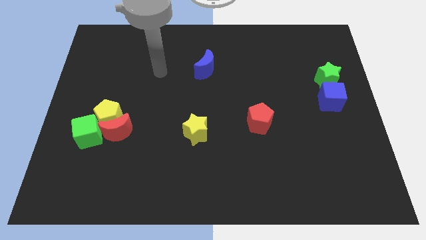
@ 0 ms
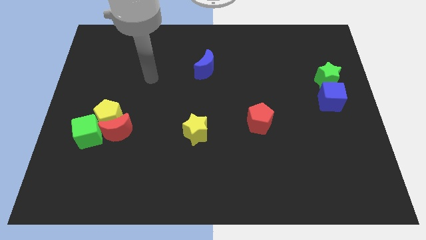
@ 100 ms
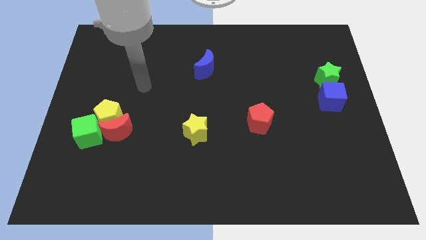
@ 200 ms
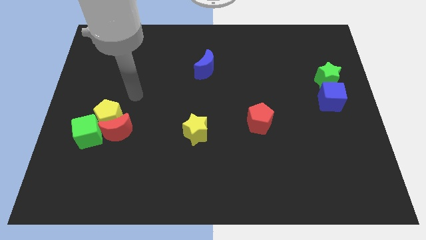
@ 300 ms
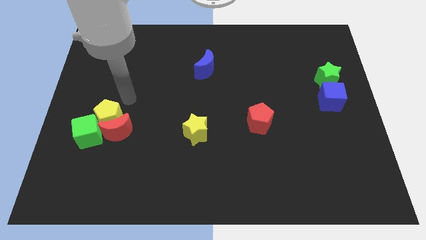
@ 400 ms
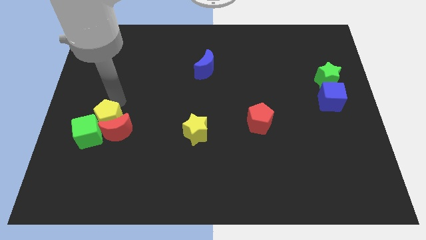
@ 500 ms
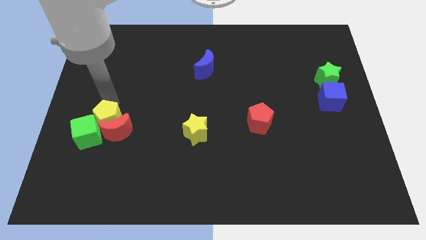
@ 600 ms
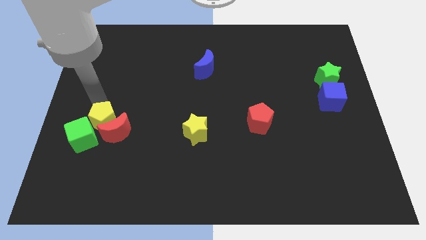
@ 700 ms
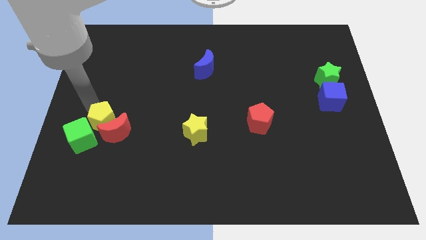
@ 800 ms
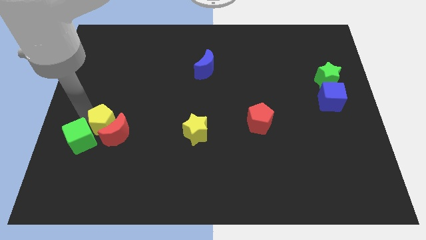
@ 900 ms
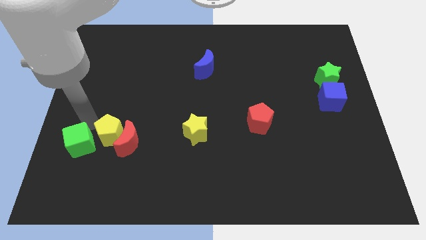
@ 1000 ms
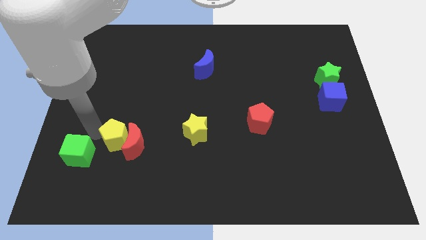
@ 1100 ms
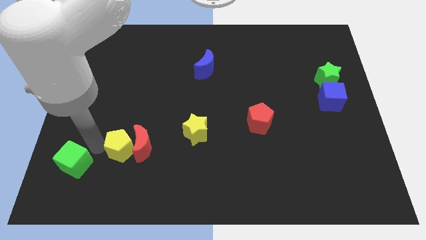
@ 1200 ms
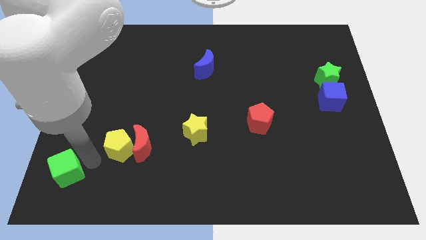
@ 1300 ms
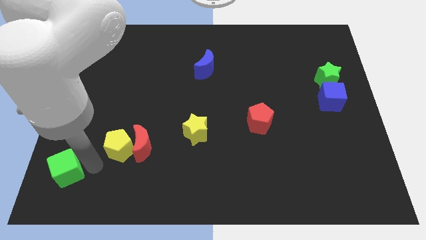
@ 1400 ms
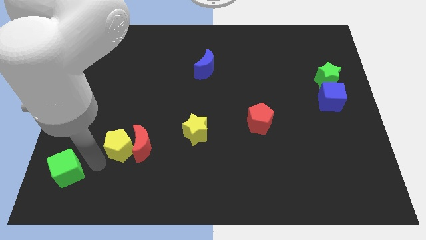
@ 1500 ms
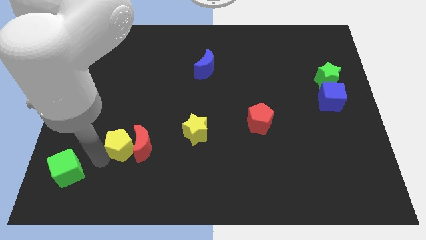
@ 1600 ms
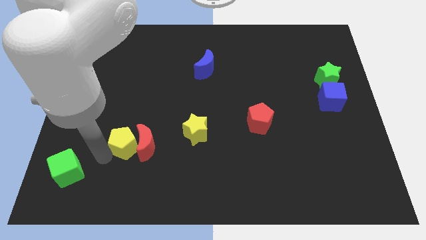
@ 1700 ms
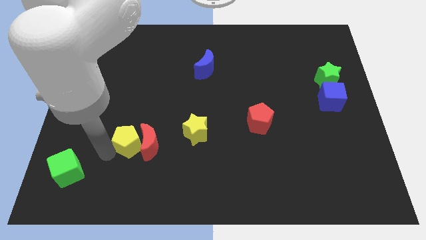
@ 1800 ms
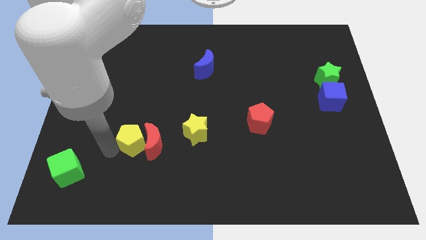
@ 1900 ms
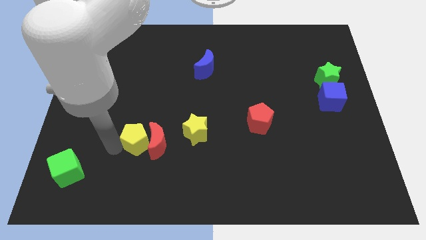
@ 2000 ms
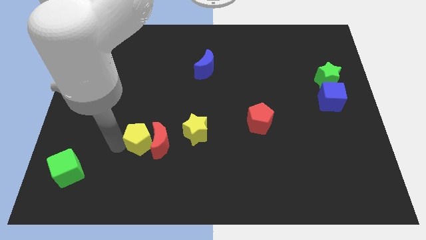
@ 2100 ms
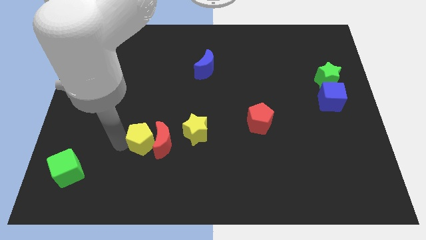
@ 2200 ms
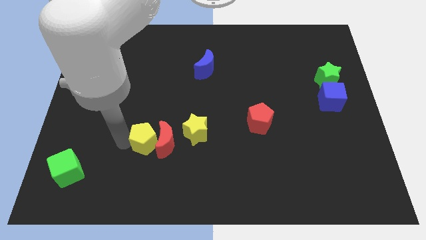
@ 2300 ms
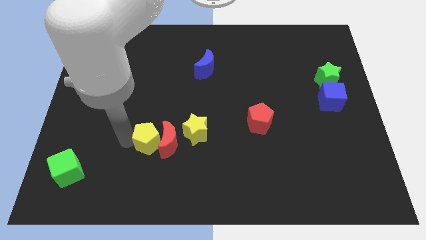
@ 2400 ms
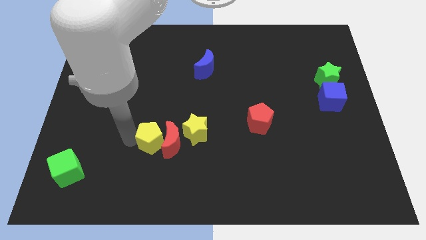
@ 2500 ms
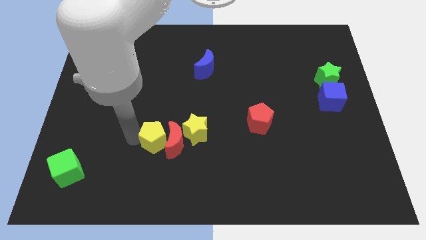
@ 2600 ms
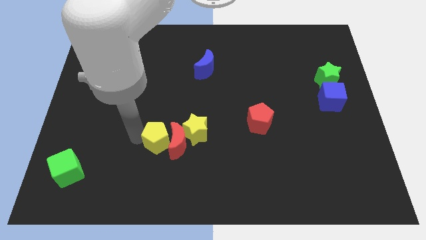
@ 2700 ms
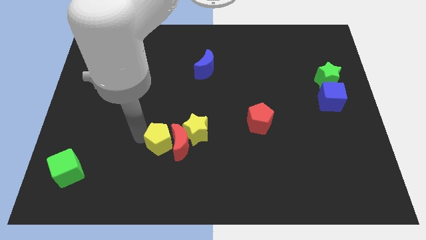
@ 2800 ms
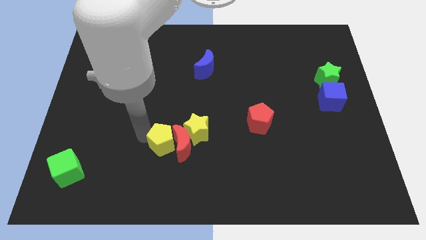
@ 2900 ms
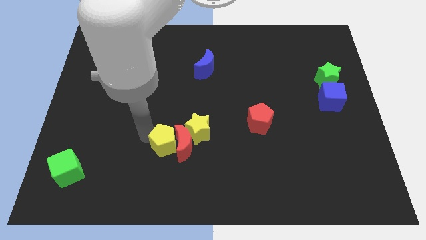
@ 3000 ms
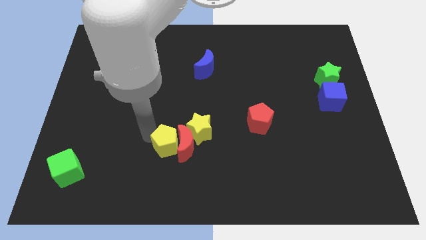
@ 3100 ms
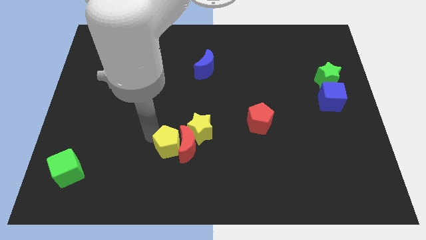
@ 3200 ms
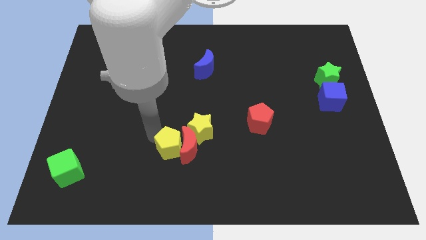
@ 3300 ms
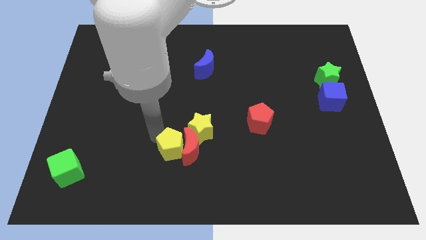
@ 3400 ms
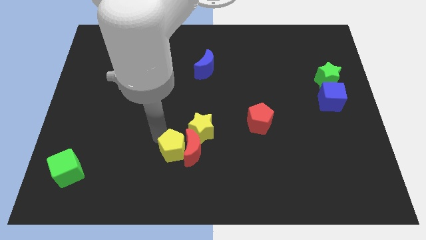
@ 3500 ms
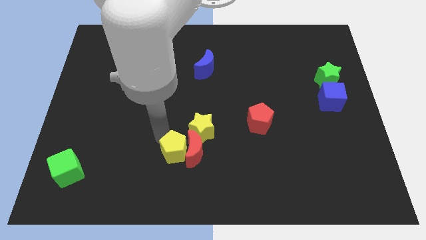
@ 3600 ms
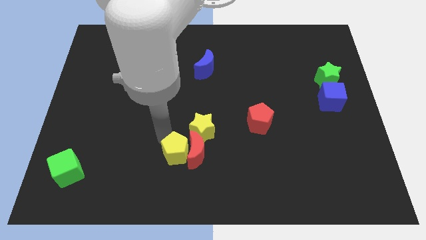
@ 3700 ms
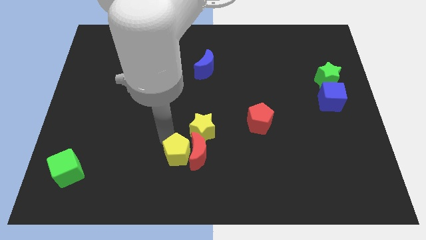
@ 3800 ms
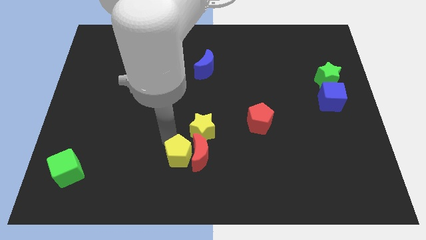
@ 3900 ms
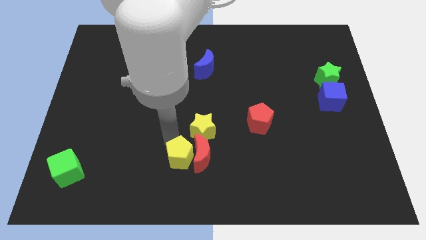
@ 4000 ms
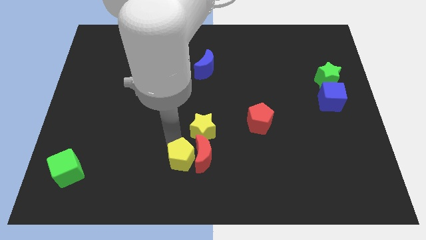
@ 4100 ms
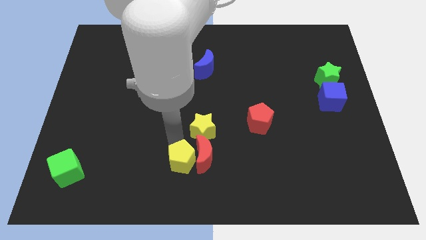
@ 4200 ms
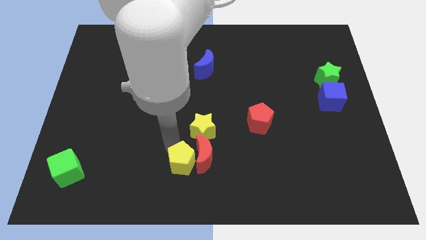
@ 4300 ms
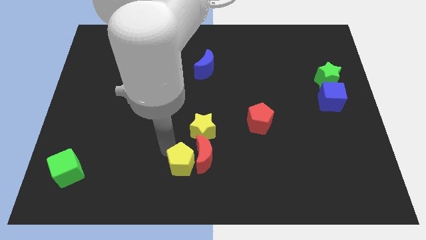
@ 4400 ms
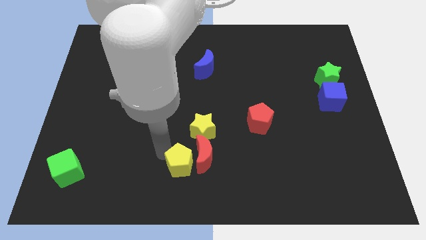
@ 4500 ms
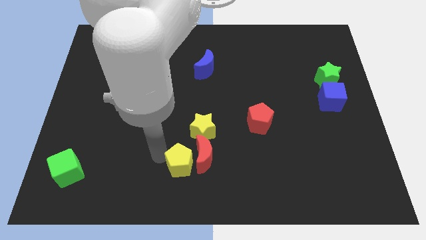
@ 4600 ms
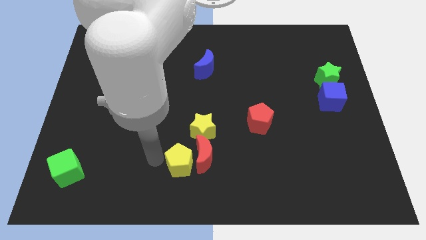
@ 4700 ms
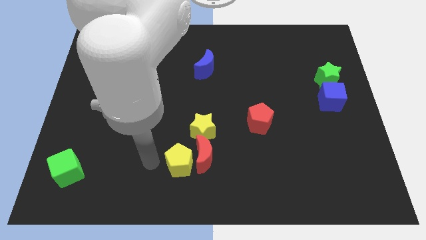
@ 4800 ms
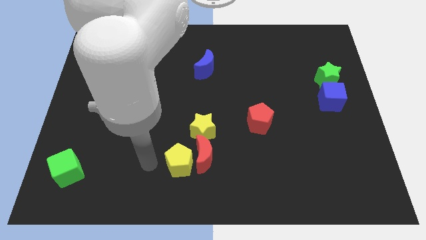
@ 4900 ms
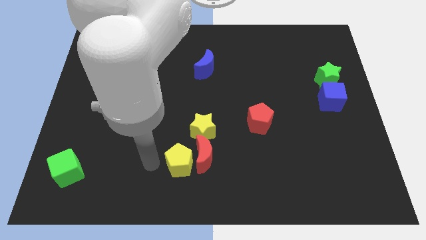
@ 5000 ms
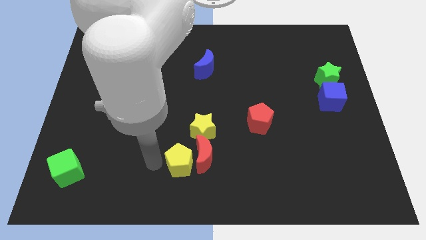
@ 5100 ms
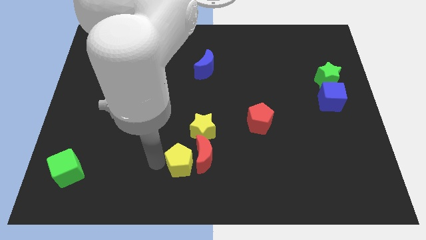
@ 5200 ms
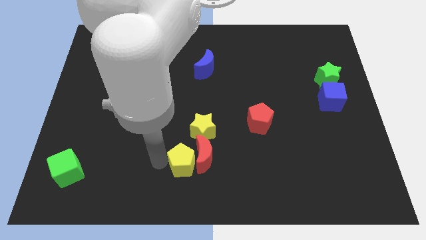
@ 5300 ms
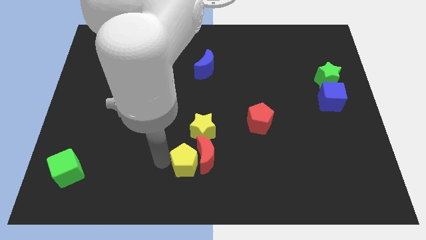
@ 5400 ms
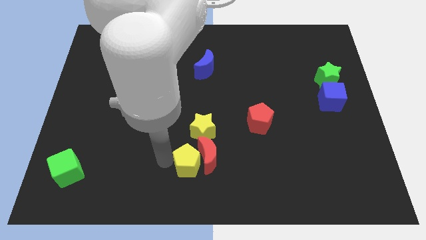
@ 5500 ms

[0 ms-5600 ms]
separate the yellow pentagon from the red moon and green cube

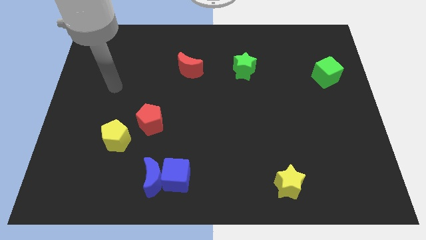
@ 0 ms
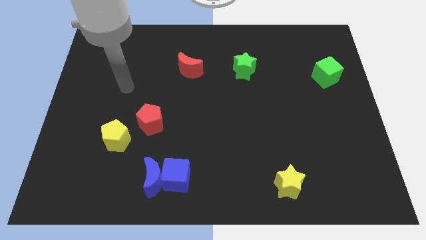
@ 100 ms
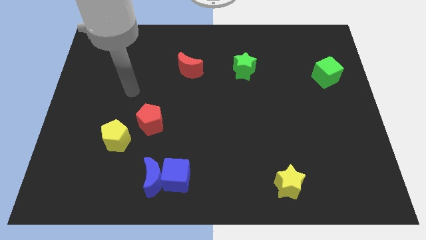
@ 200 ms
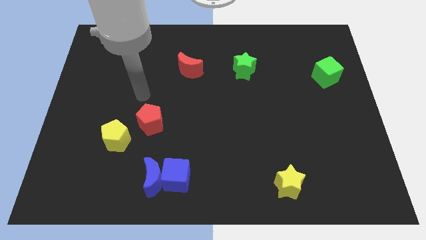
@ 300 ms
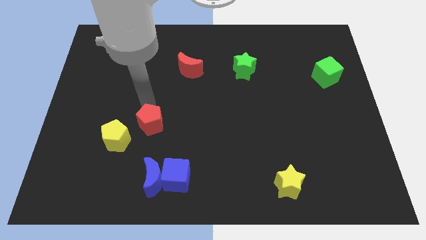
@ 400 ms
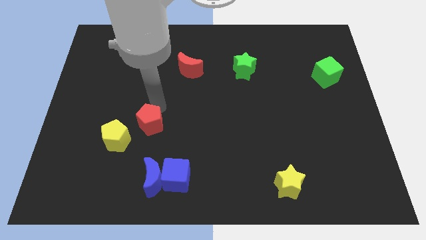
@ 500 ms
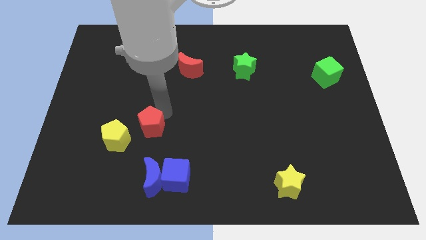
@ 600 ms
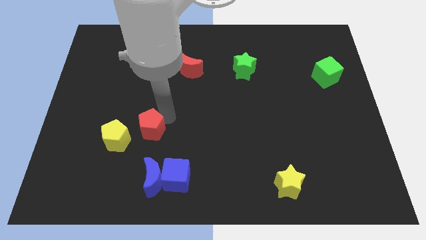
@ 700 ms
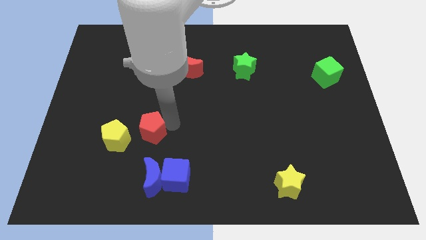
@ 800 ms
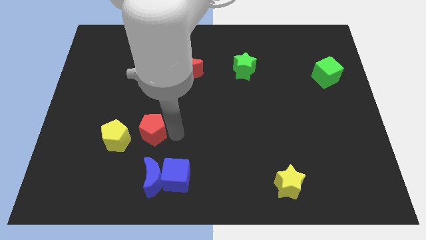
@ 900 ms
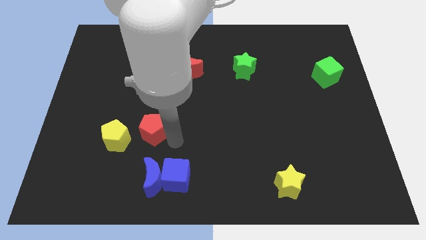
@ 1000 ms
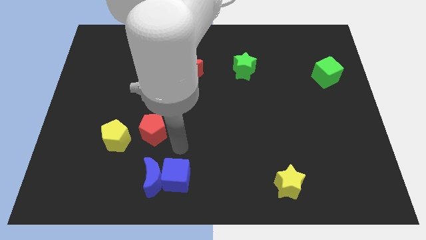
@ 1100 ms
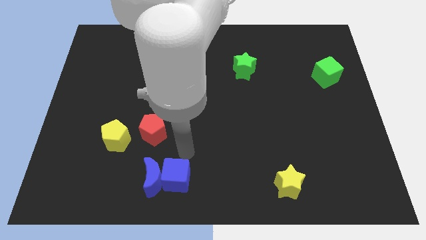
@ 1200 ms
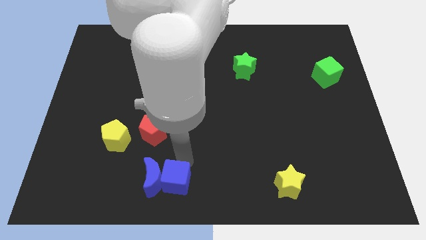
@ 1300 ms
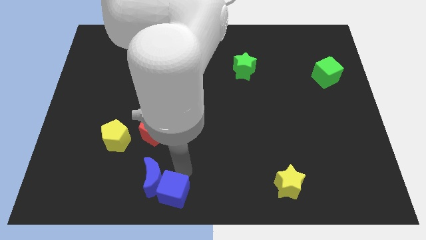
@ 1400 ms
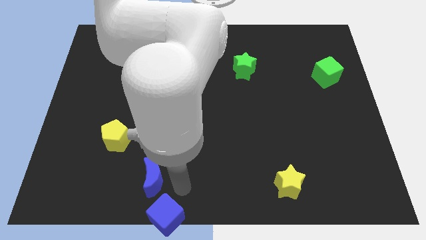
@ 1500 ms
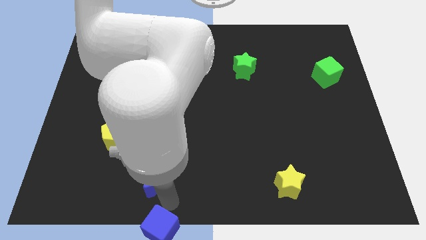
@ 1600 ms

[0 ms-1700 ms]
move the blue moon away from the blue cube

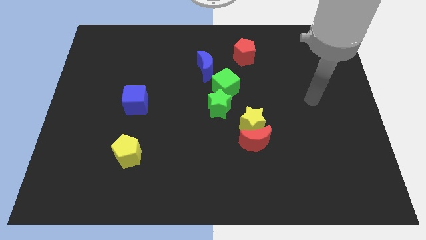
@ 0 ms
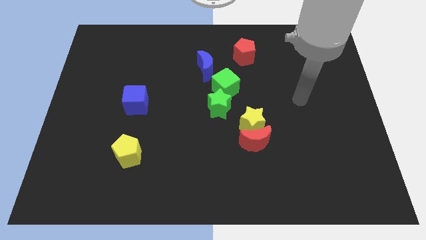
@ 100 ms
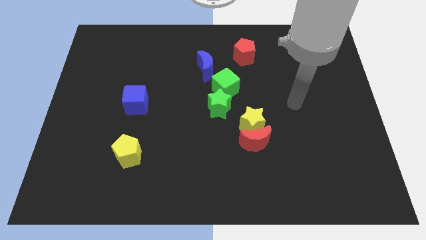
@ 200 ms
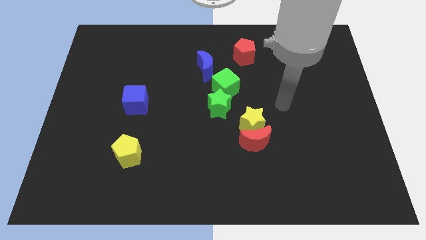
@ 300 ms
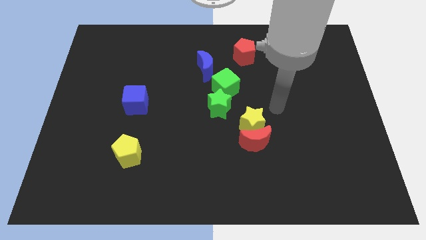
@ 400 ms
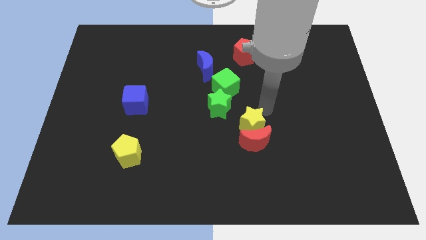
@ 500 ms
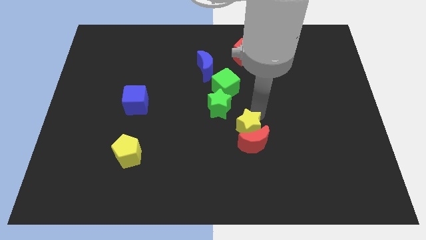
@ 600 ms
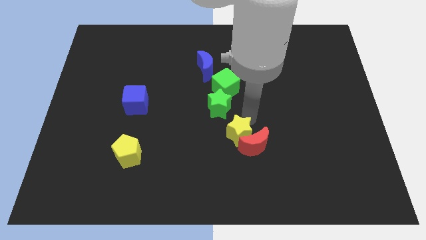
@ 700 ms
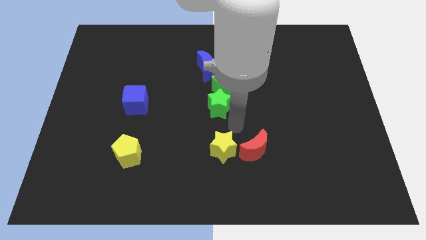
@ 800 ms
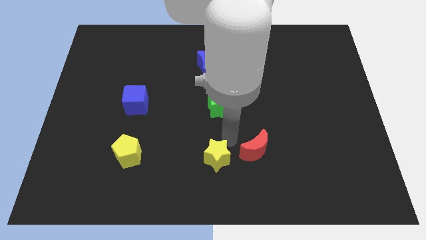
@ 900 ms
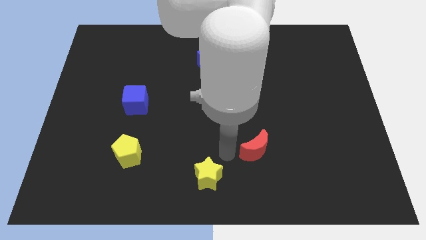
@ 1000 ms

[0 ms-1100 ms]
pull the red moon apart from the yellow star

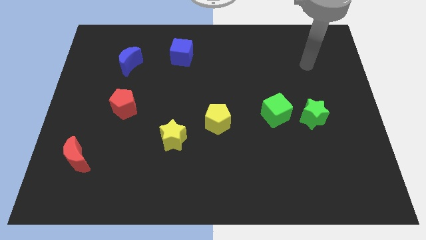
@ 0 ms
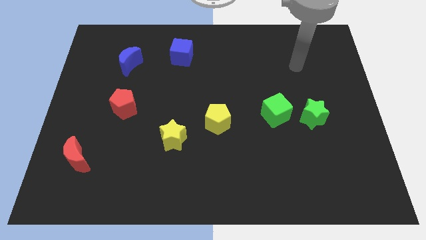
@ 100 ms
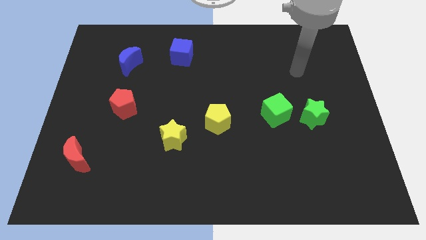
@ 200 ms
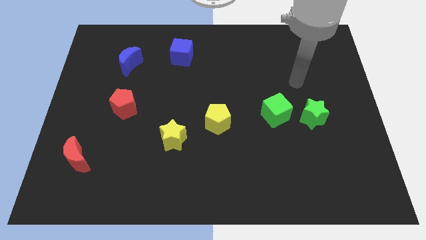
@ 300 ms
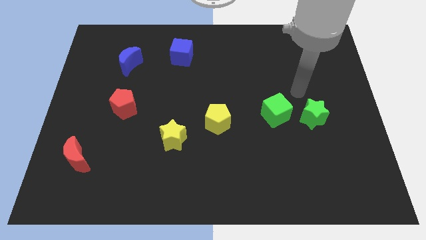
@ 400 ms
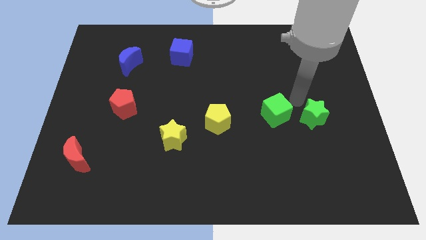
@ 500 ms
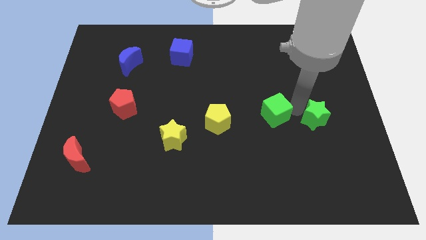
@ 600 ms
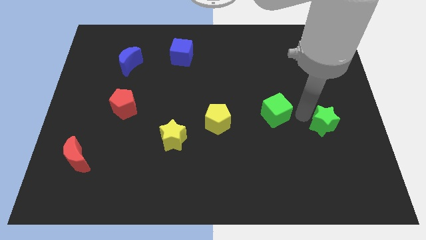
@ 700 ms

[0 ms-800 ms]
move the green cube away from the green star
